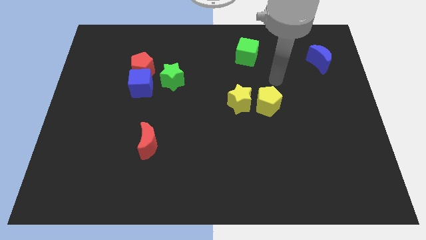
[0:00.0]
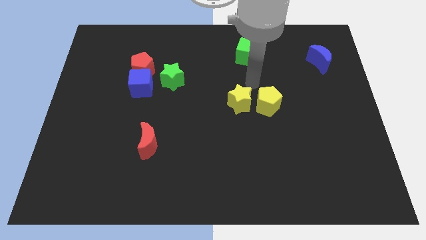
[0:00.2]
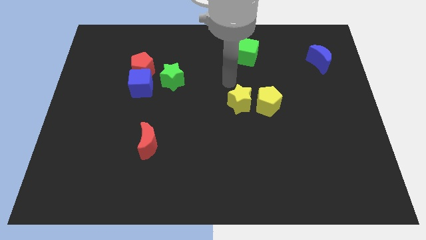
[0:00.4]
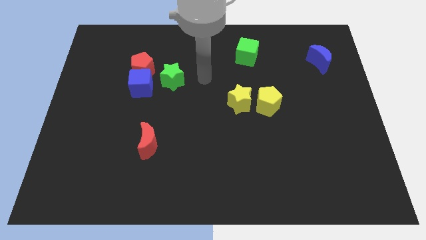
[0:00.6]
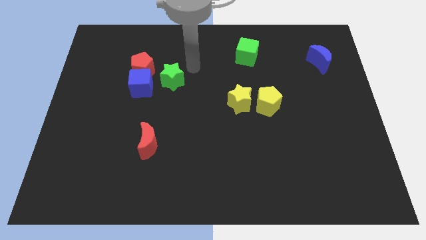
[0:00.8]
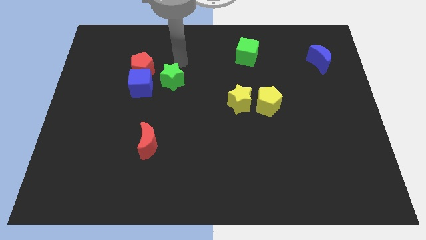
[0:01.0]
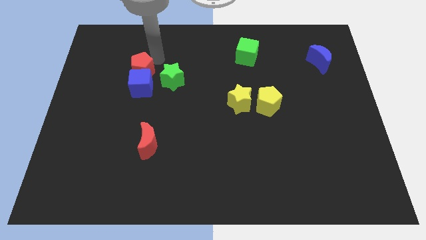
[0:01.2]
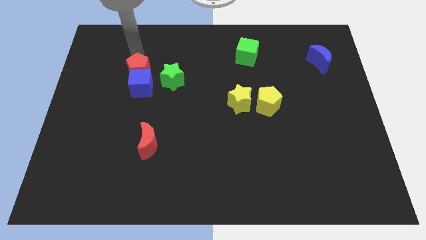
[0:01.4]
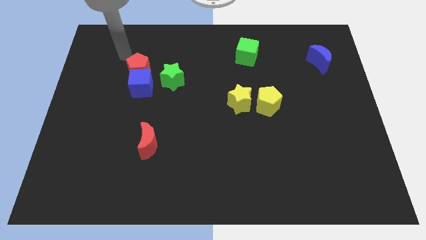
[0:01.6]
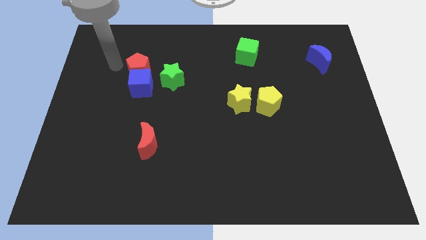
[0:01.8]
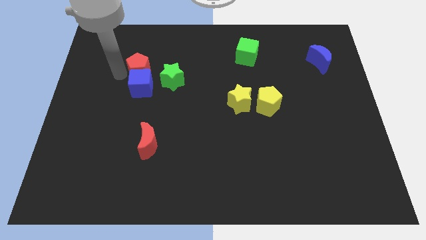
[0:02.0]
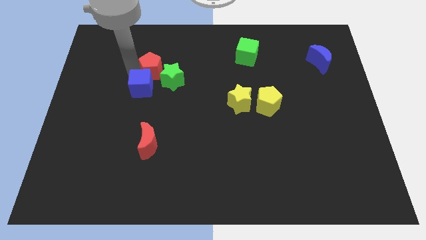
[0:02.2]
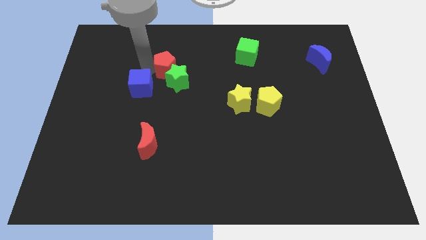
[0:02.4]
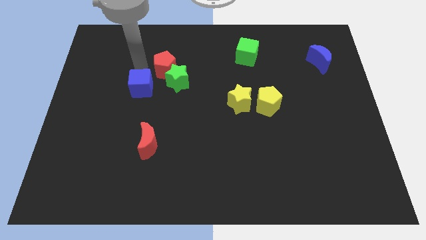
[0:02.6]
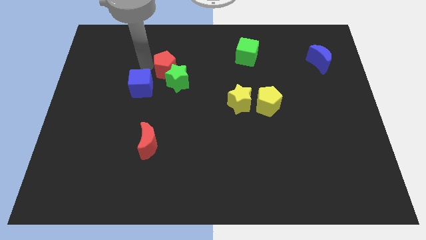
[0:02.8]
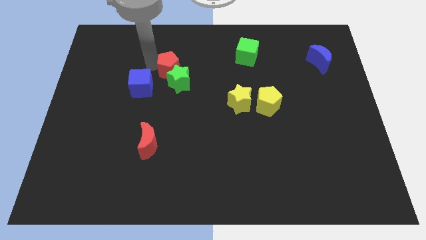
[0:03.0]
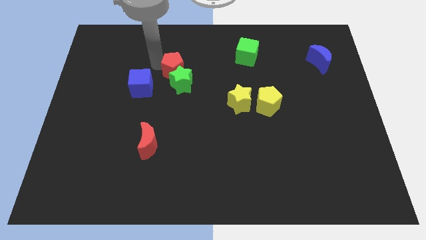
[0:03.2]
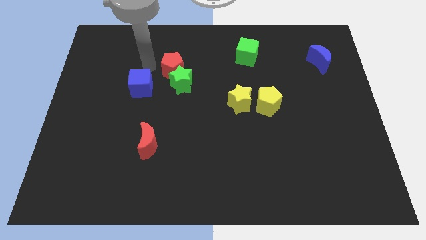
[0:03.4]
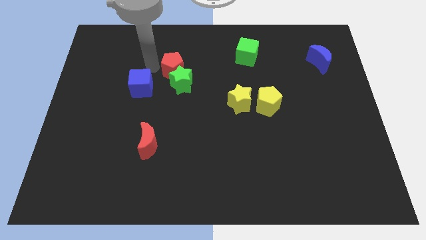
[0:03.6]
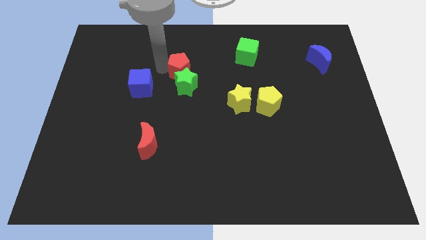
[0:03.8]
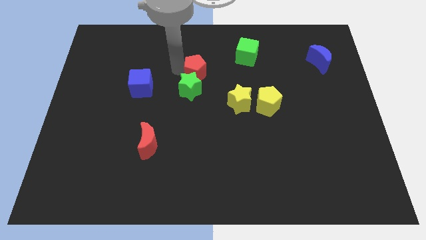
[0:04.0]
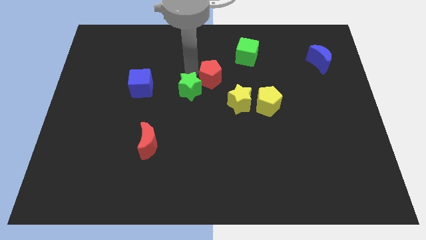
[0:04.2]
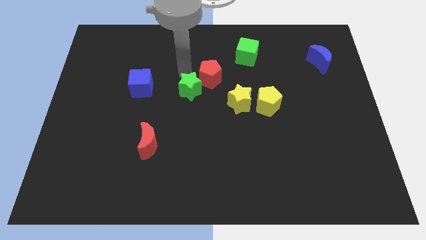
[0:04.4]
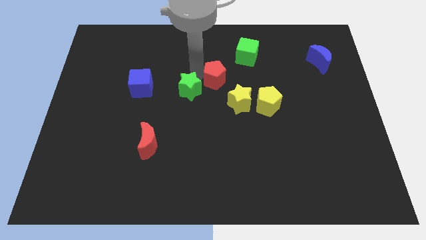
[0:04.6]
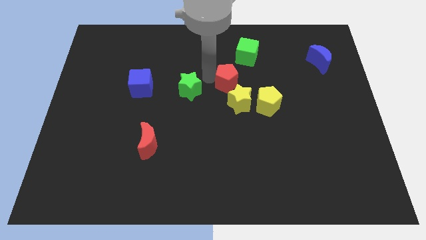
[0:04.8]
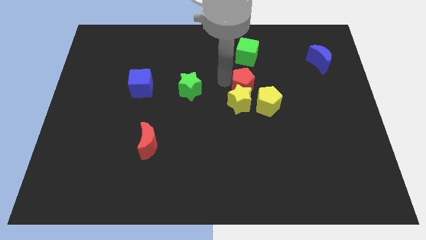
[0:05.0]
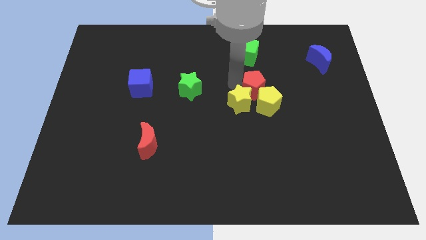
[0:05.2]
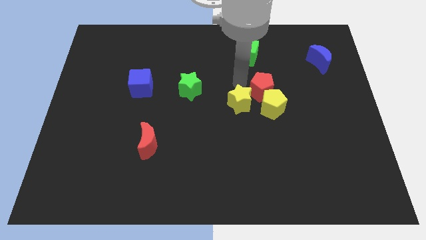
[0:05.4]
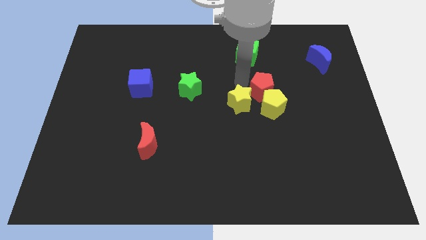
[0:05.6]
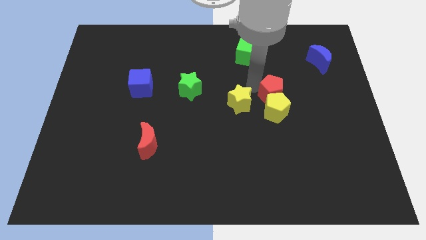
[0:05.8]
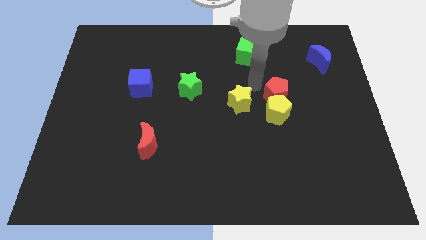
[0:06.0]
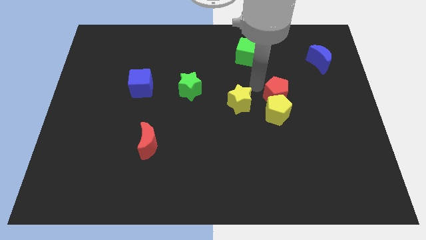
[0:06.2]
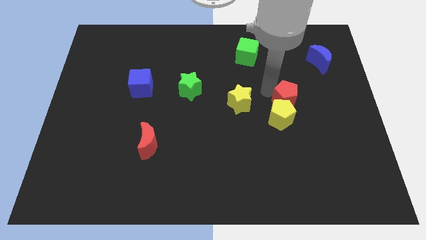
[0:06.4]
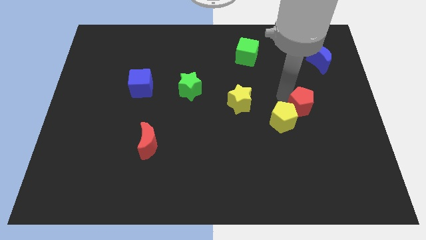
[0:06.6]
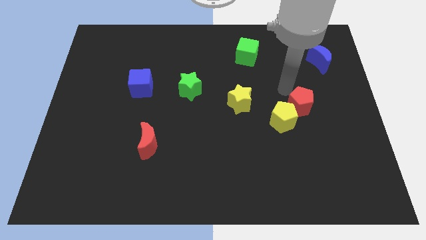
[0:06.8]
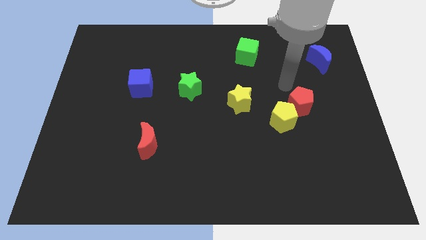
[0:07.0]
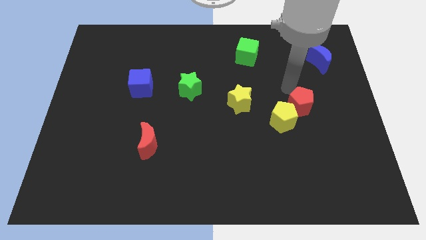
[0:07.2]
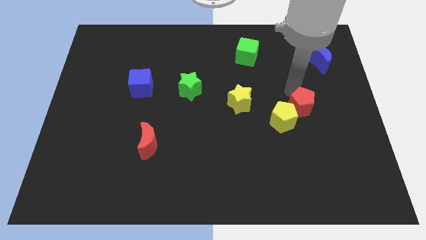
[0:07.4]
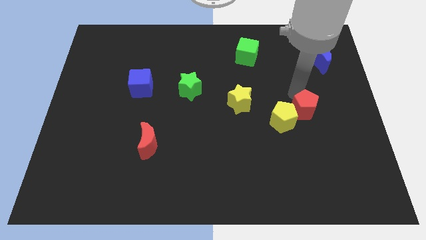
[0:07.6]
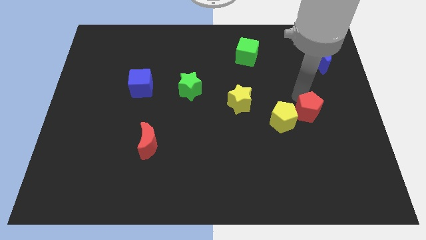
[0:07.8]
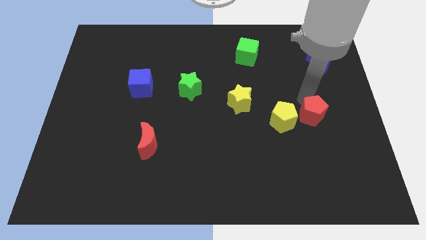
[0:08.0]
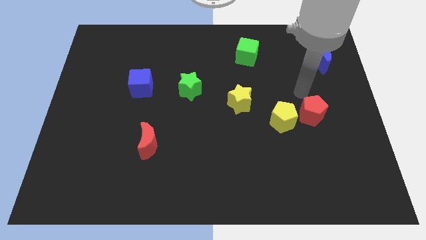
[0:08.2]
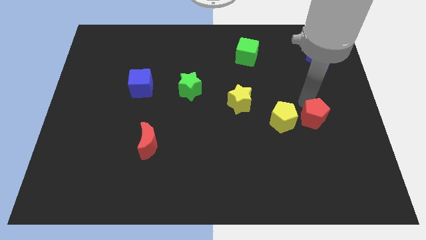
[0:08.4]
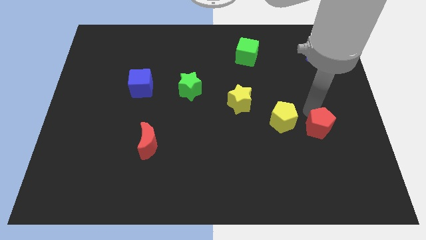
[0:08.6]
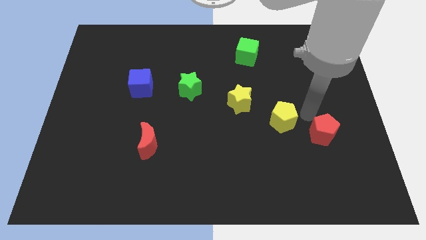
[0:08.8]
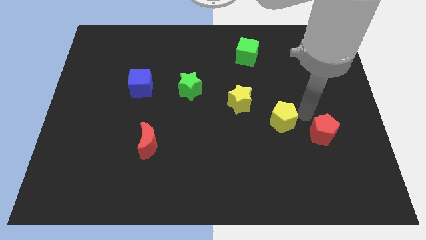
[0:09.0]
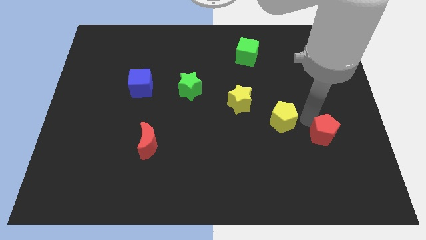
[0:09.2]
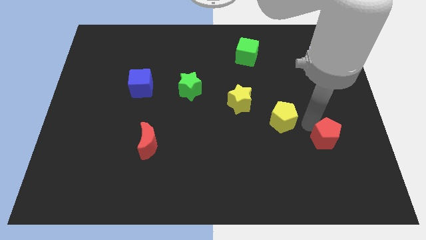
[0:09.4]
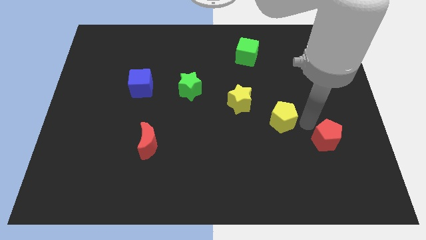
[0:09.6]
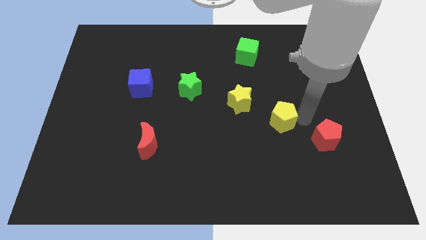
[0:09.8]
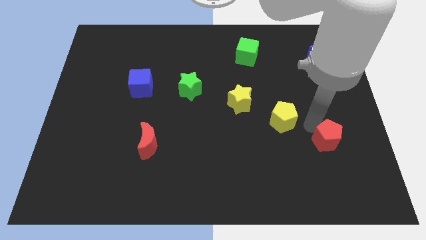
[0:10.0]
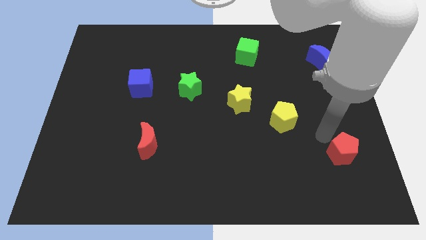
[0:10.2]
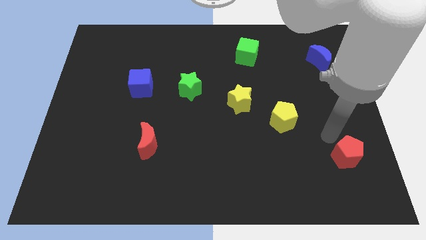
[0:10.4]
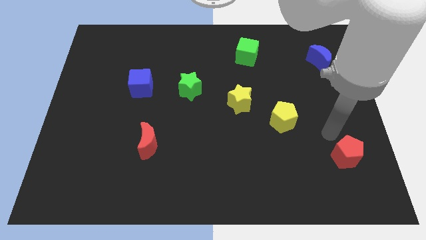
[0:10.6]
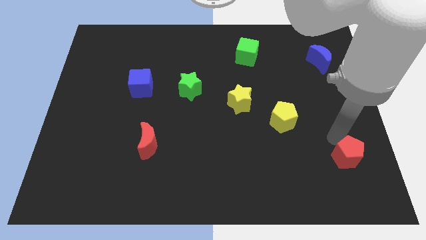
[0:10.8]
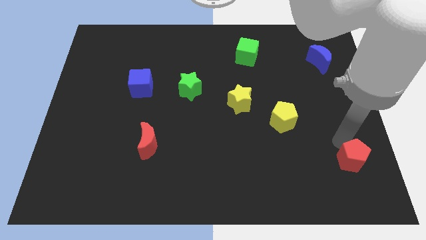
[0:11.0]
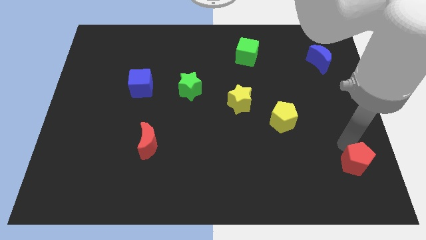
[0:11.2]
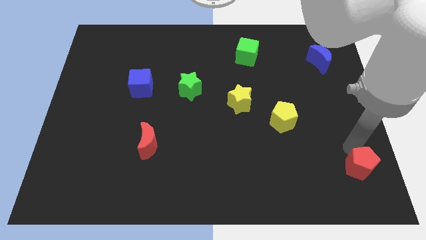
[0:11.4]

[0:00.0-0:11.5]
move the red pentagon to the bottom right of the board

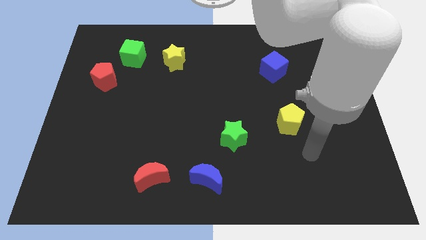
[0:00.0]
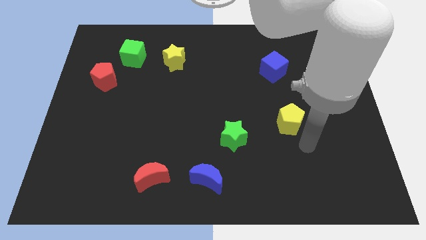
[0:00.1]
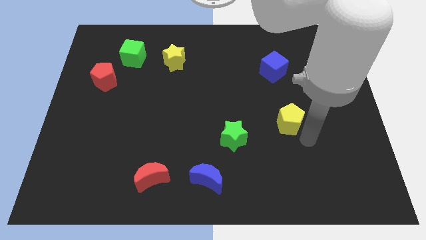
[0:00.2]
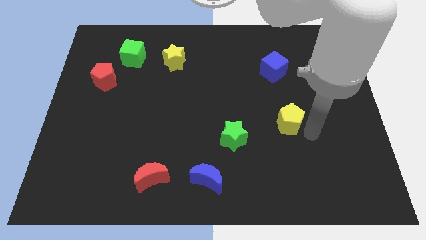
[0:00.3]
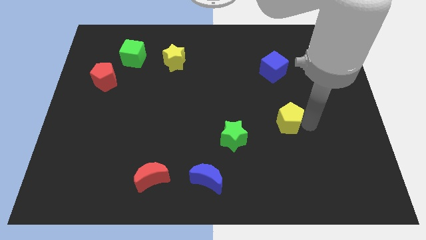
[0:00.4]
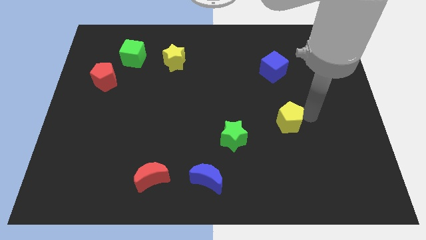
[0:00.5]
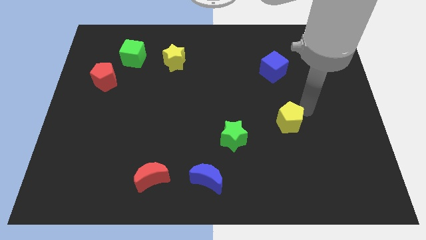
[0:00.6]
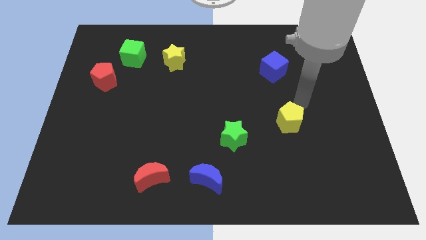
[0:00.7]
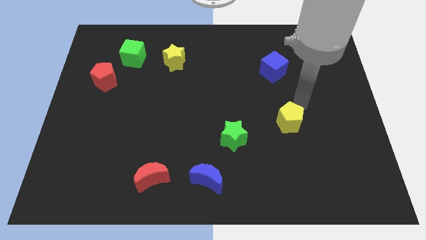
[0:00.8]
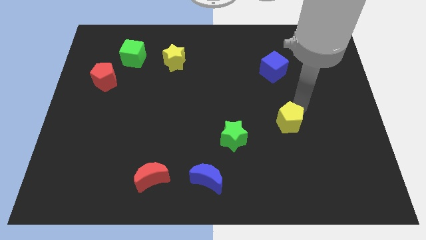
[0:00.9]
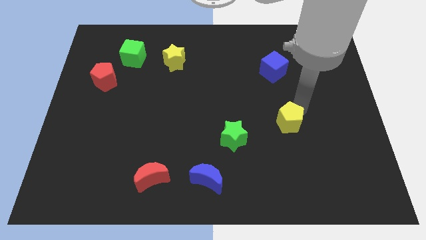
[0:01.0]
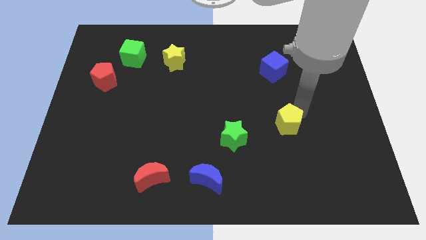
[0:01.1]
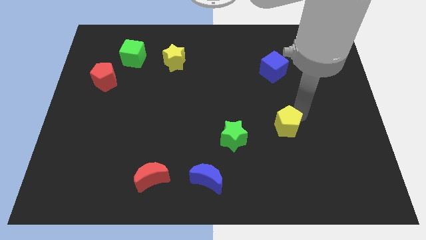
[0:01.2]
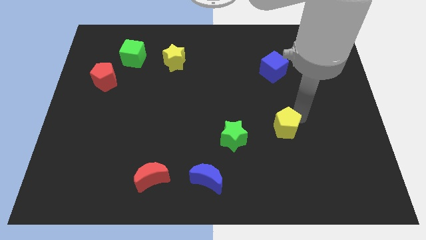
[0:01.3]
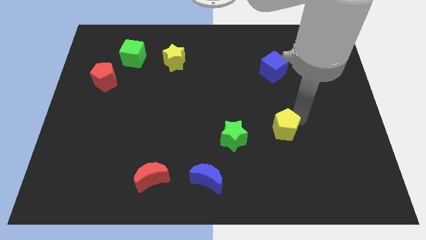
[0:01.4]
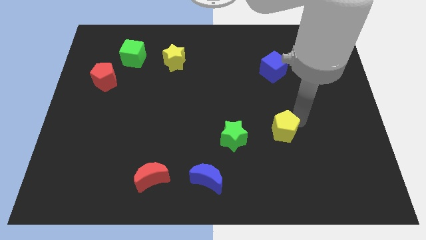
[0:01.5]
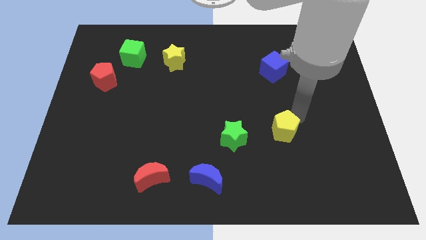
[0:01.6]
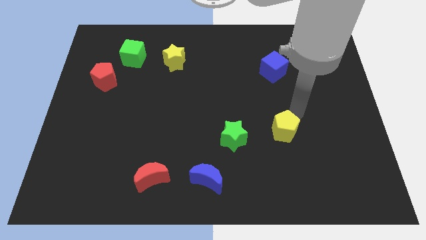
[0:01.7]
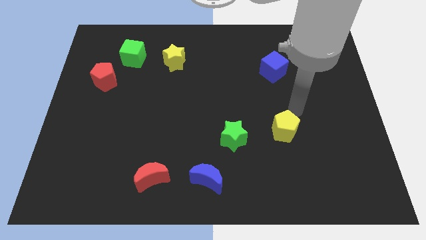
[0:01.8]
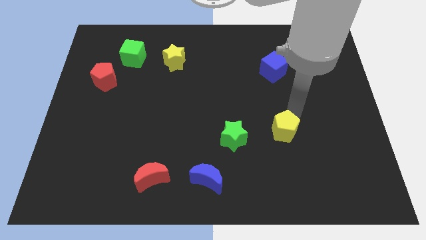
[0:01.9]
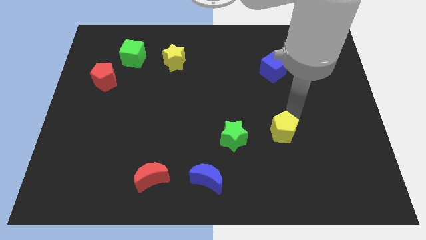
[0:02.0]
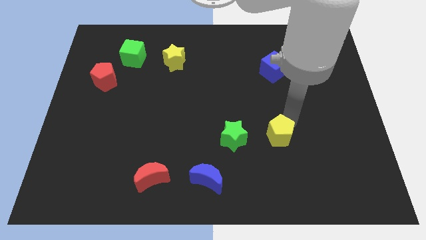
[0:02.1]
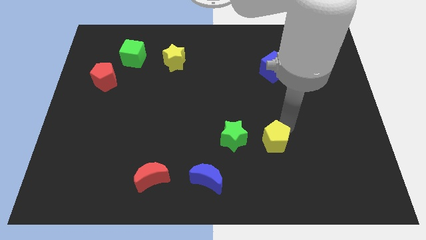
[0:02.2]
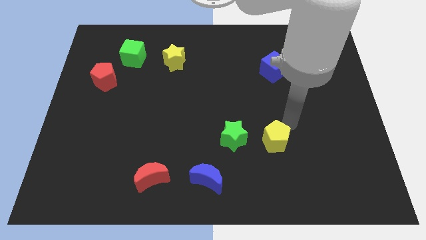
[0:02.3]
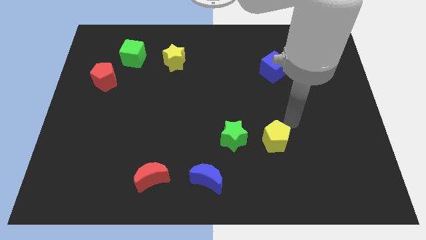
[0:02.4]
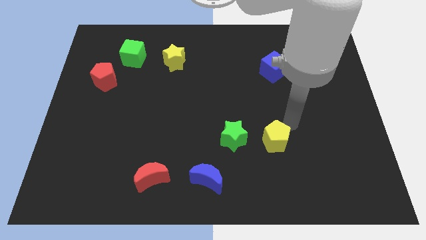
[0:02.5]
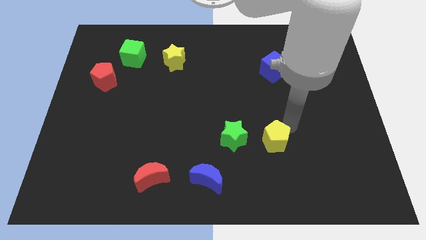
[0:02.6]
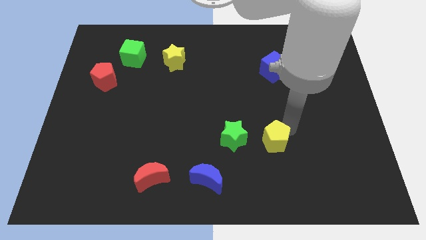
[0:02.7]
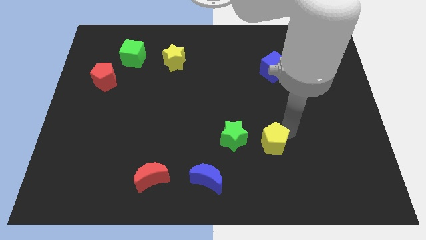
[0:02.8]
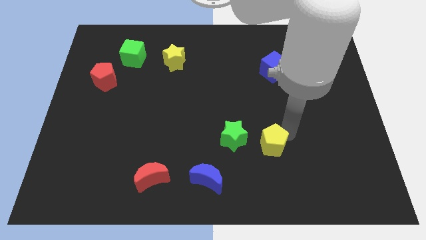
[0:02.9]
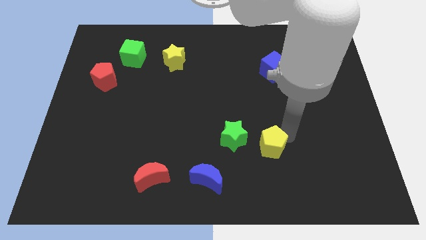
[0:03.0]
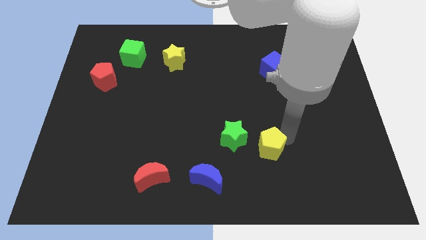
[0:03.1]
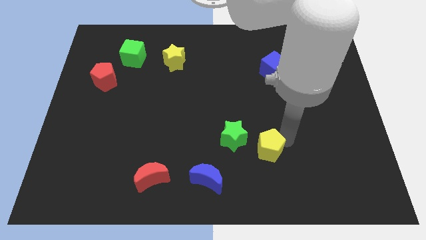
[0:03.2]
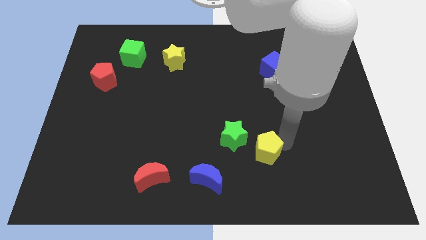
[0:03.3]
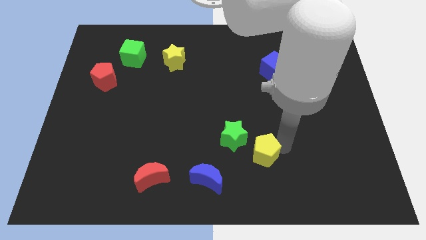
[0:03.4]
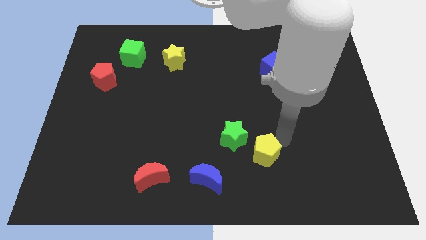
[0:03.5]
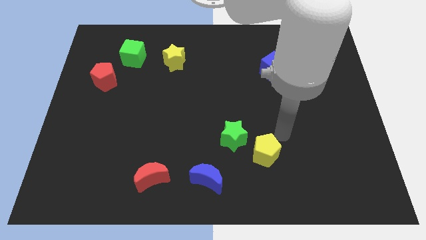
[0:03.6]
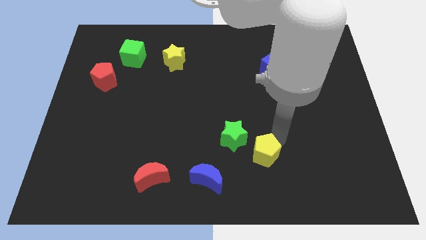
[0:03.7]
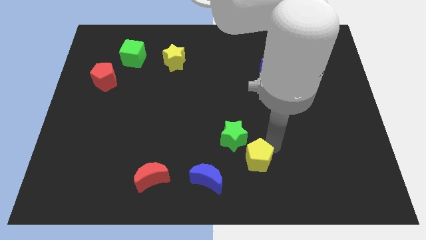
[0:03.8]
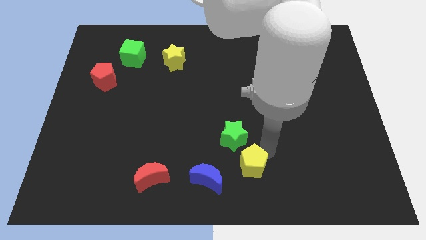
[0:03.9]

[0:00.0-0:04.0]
push the yellow pentagon to the bottom side
